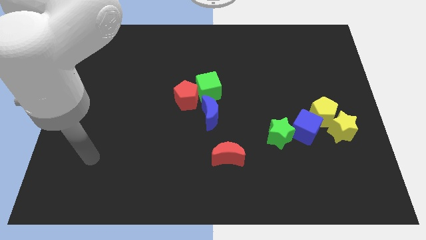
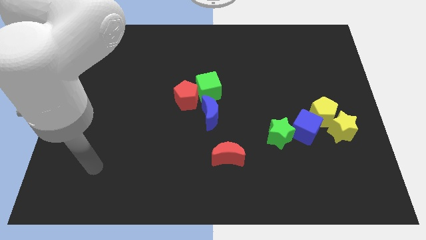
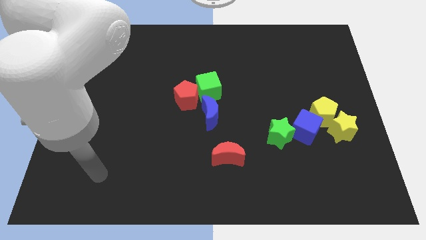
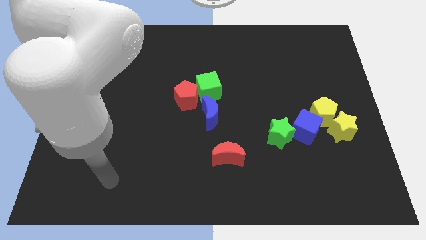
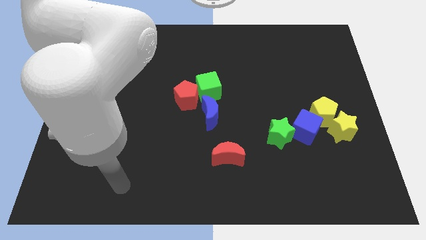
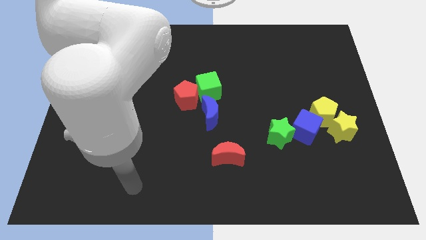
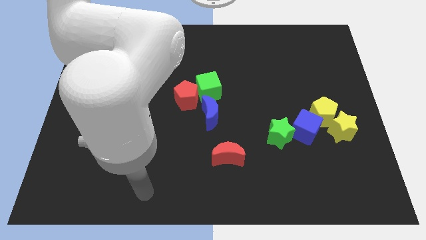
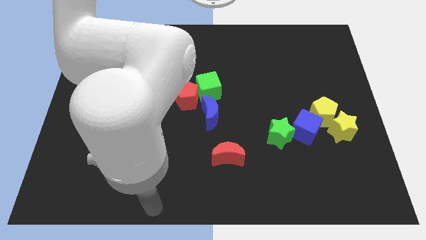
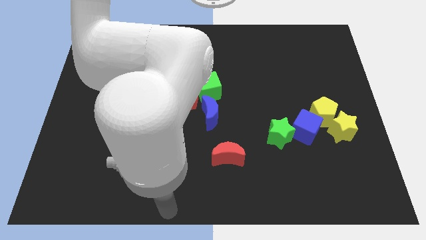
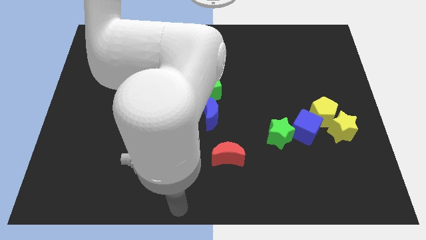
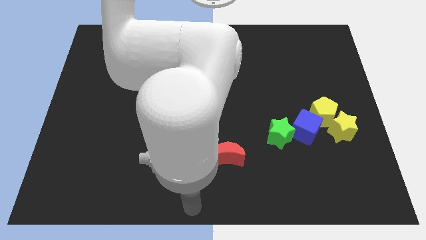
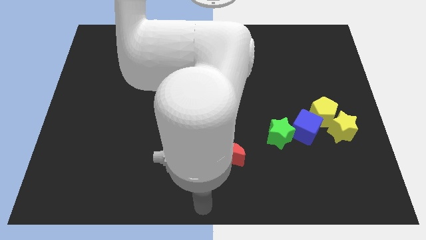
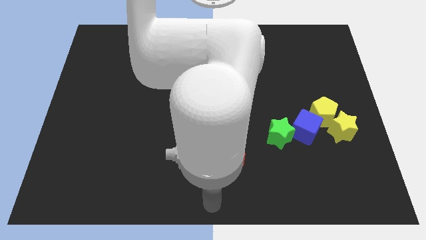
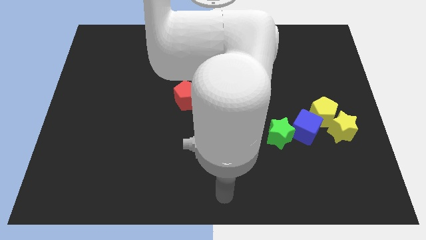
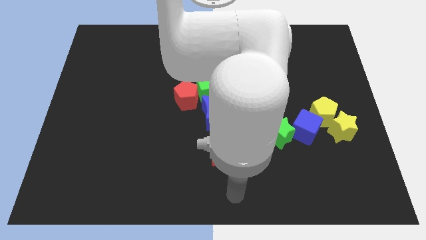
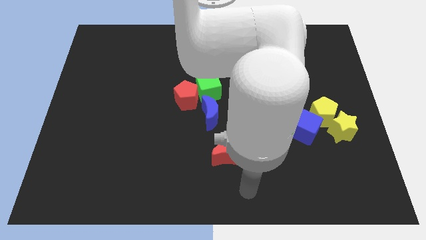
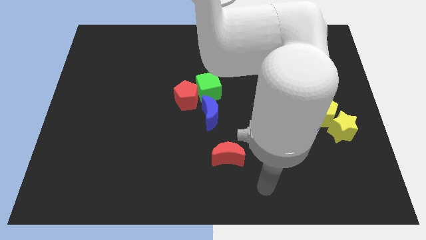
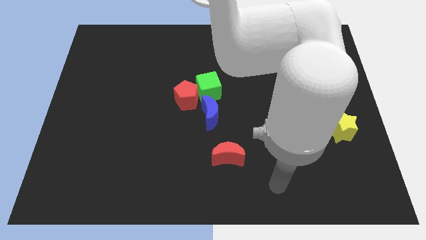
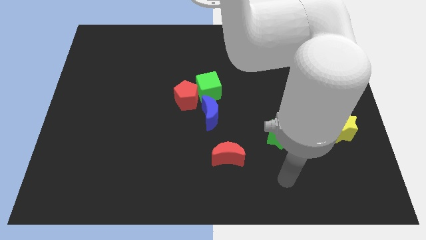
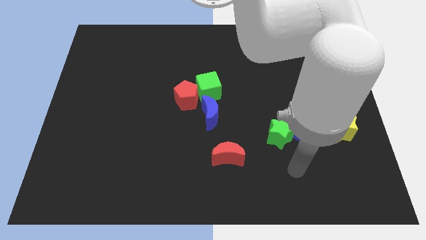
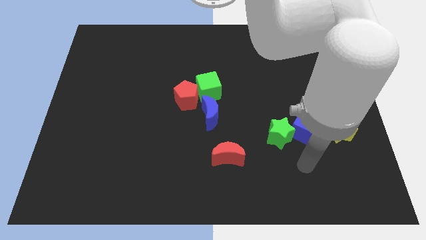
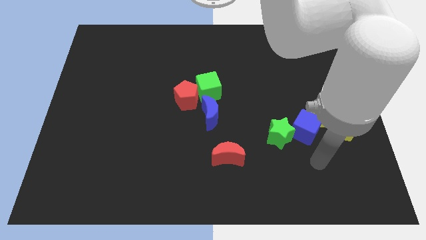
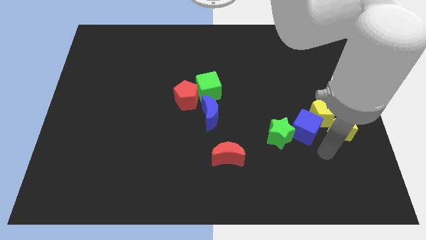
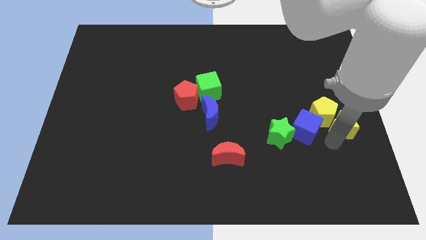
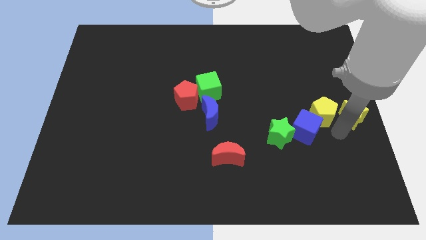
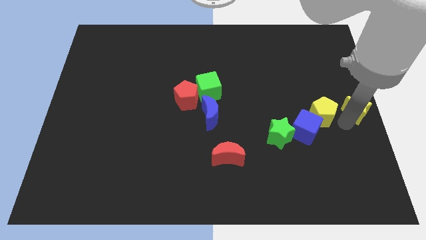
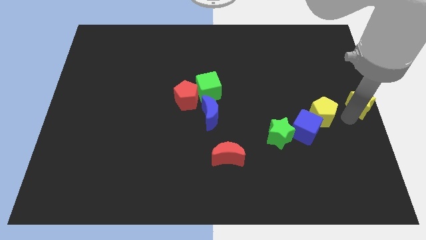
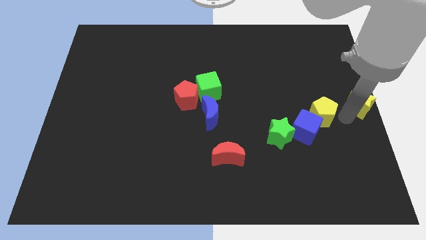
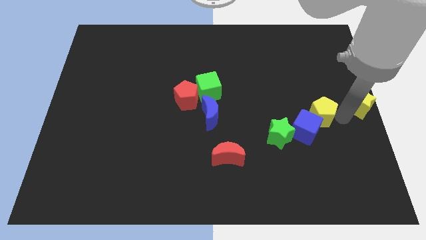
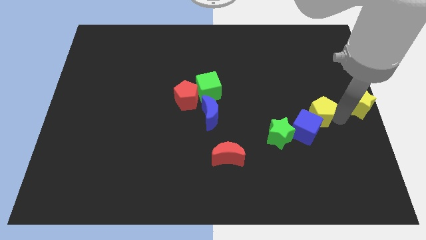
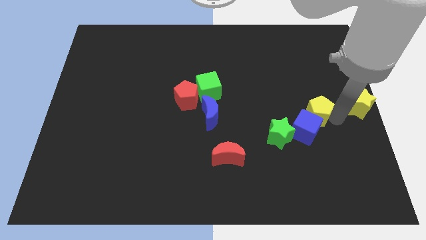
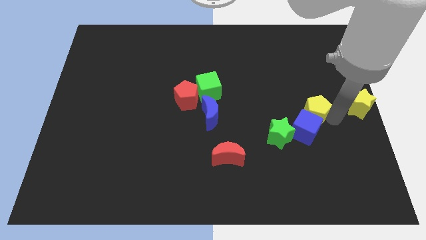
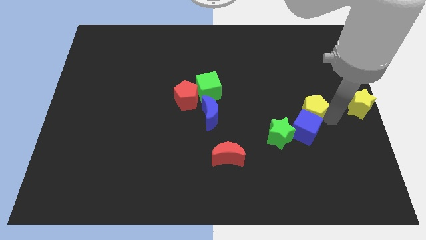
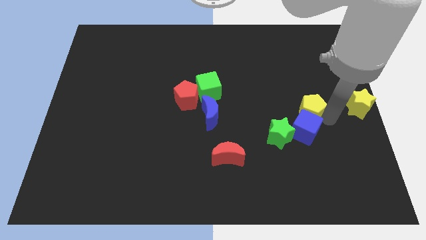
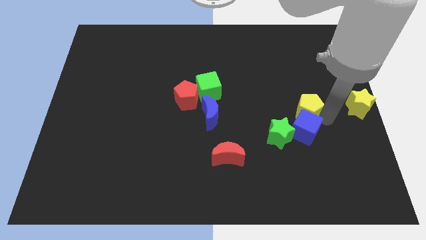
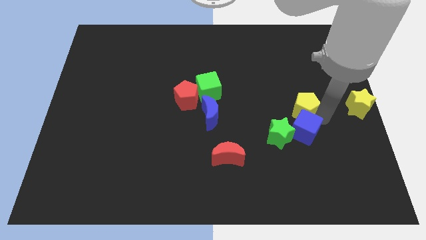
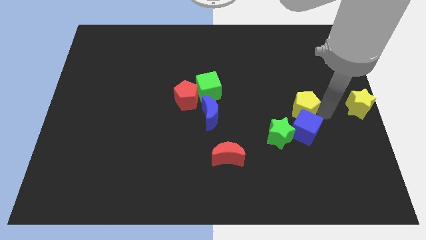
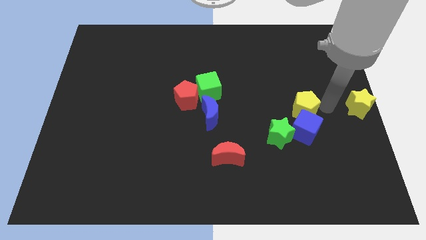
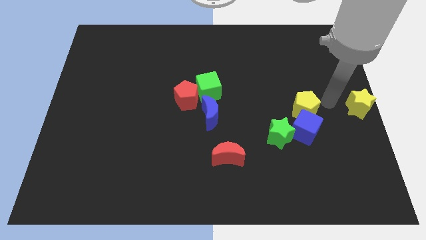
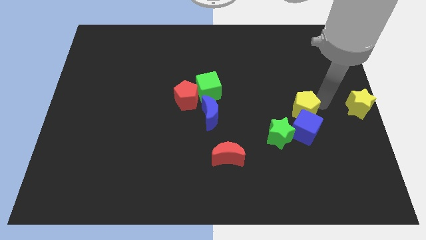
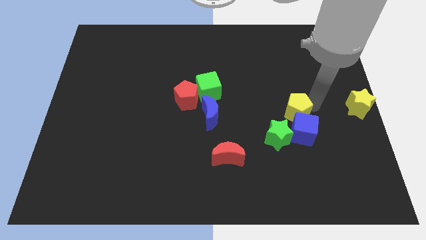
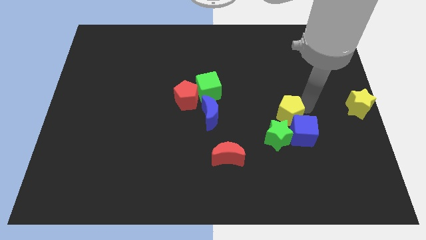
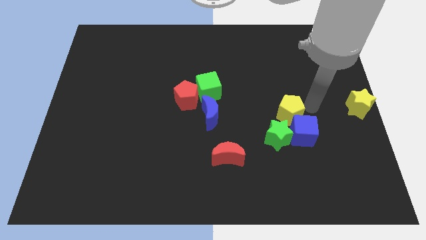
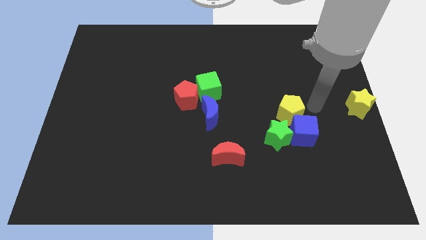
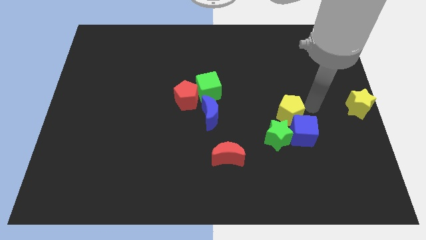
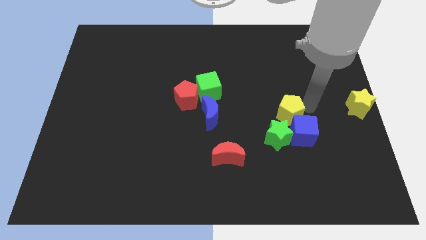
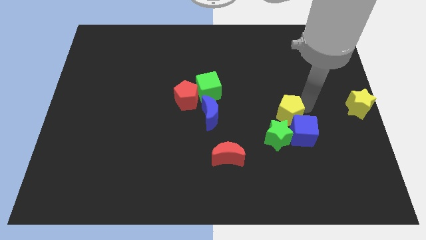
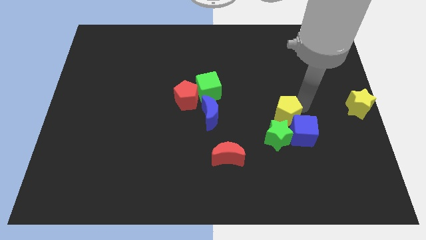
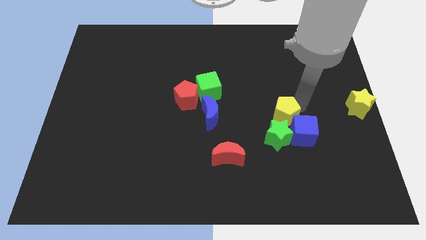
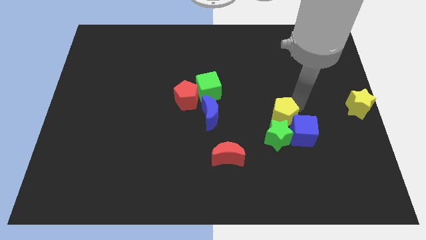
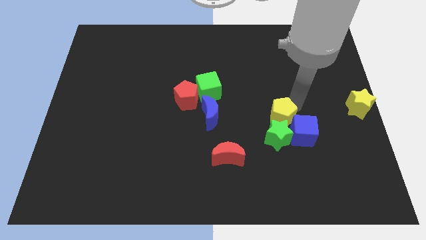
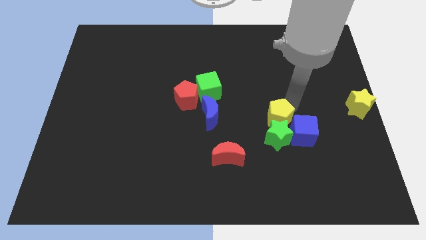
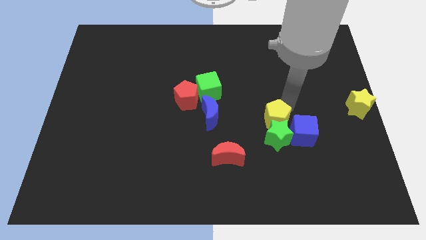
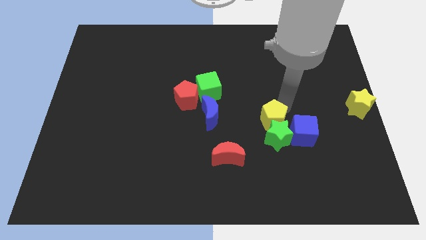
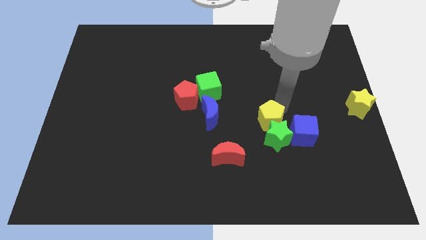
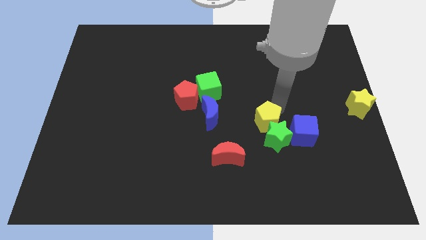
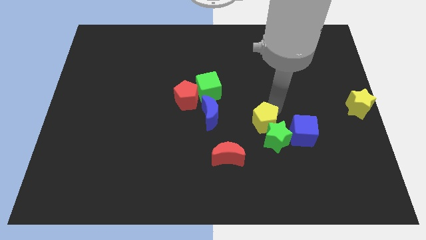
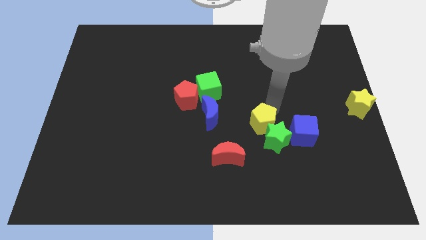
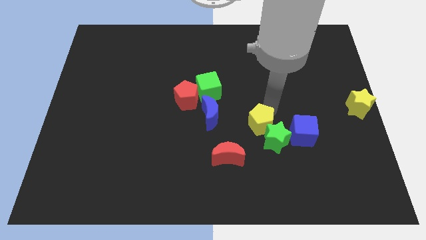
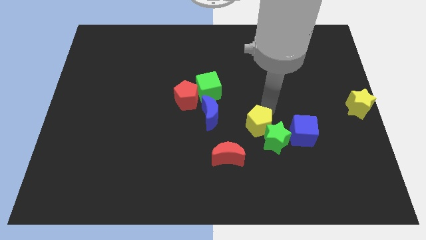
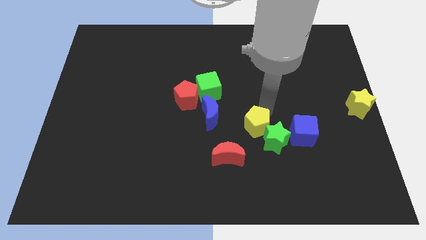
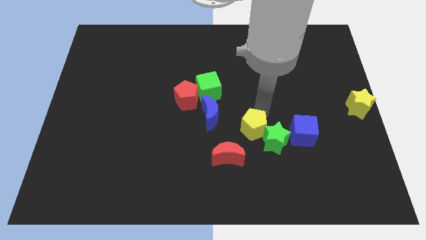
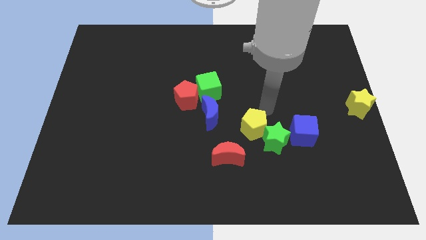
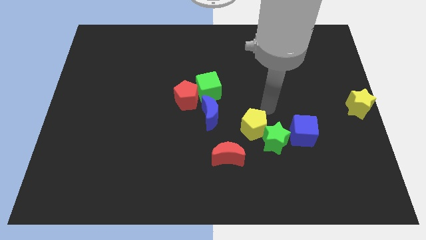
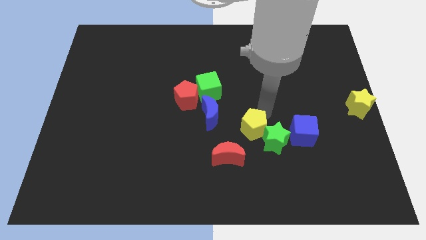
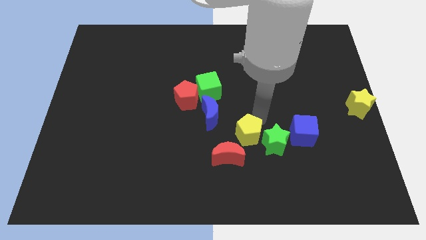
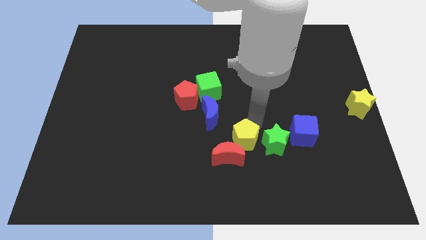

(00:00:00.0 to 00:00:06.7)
push the yellow pentagon next to the red moon
